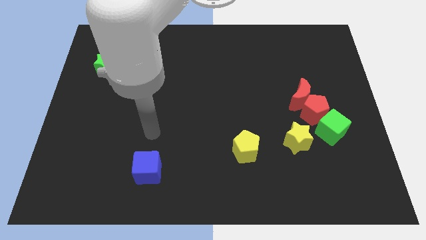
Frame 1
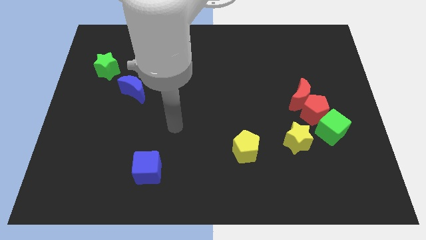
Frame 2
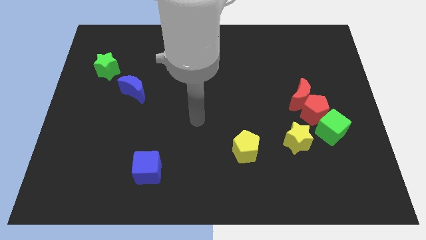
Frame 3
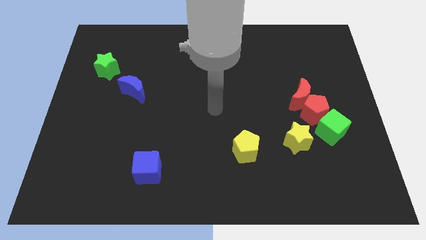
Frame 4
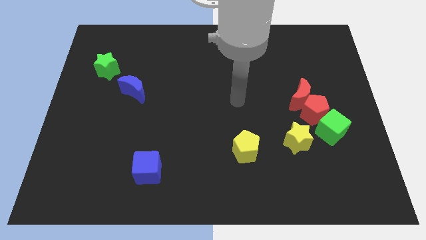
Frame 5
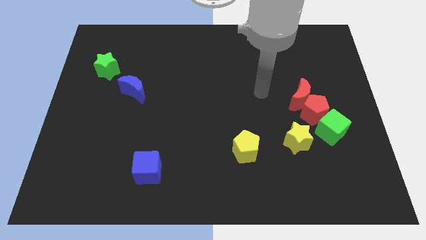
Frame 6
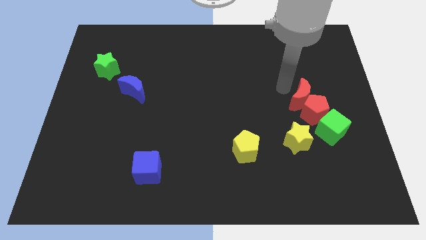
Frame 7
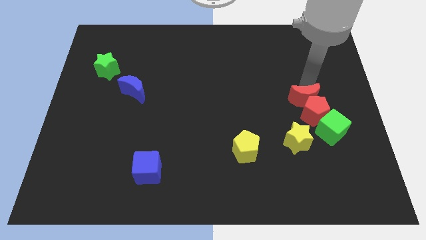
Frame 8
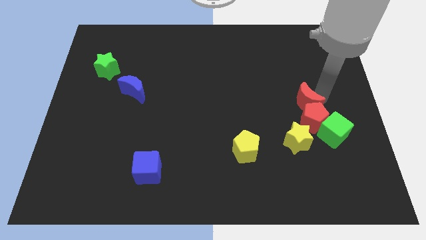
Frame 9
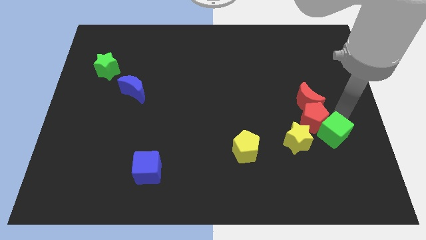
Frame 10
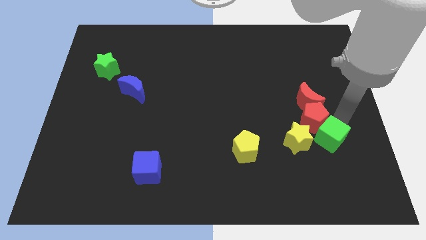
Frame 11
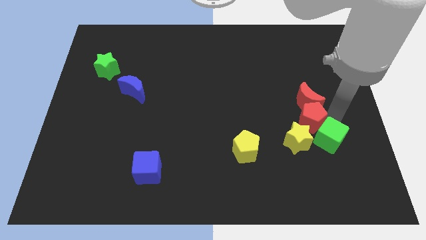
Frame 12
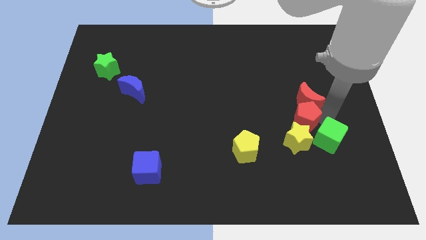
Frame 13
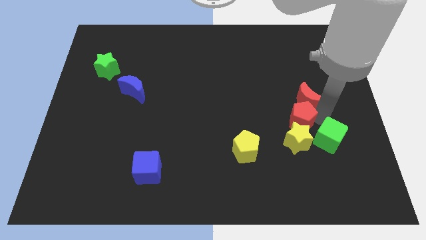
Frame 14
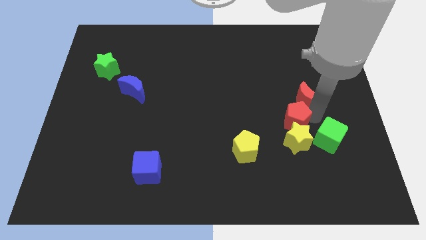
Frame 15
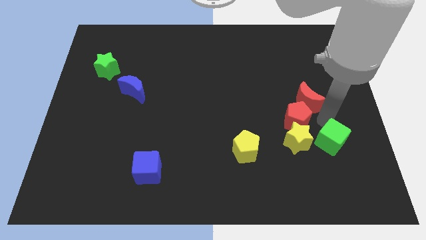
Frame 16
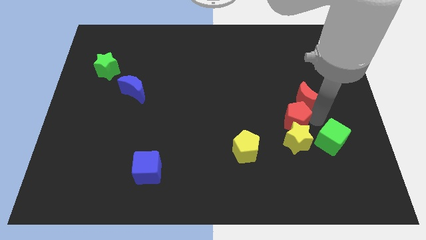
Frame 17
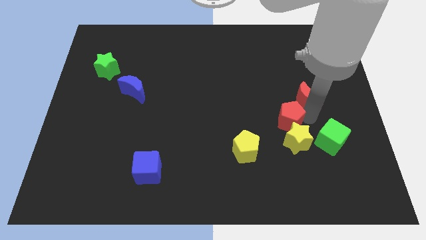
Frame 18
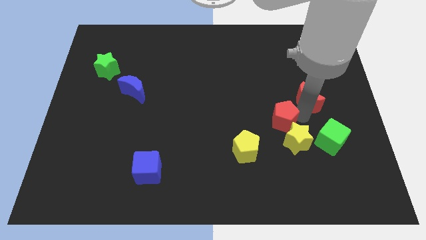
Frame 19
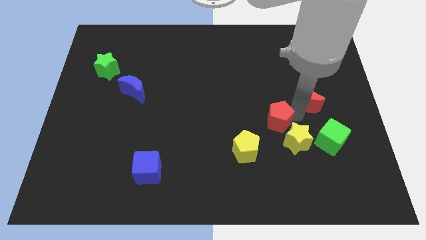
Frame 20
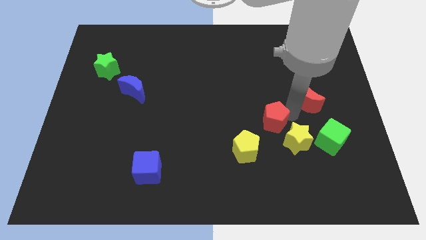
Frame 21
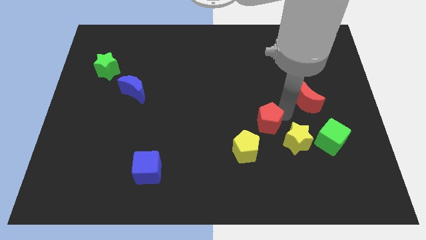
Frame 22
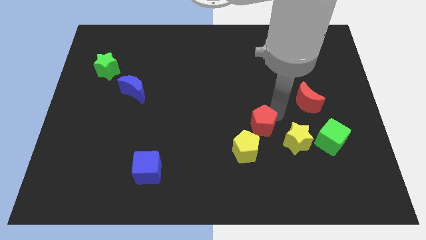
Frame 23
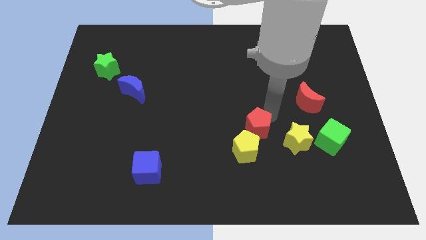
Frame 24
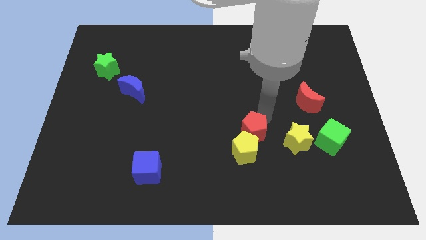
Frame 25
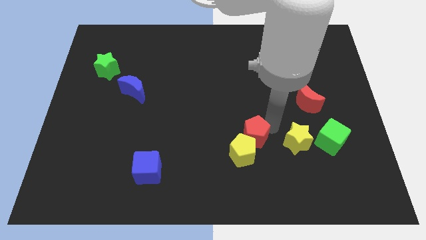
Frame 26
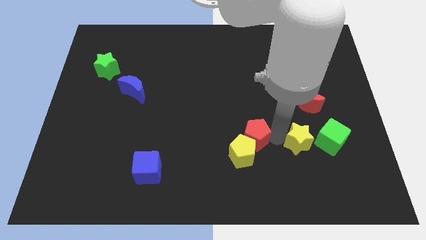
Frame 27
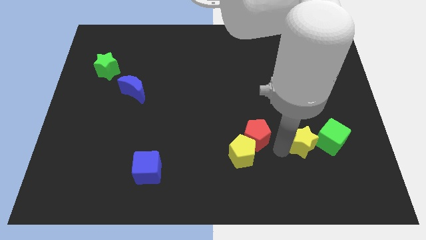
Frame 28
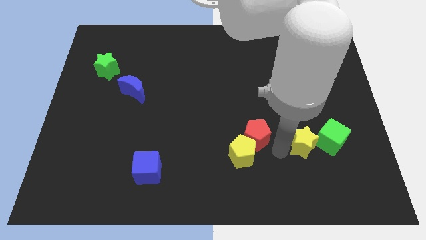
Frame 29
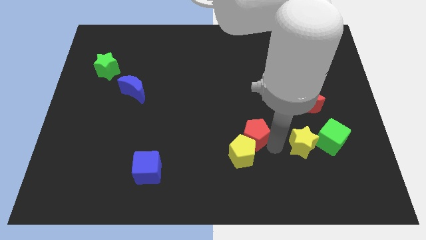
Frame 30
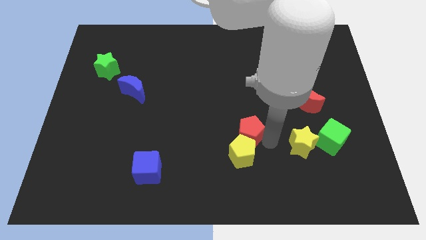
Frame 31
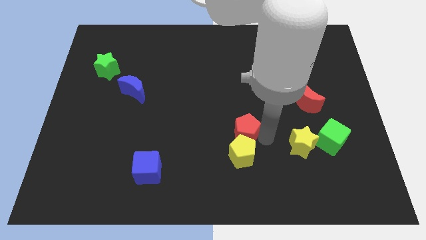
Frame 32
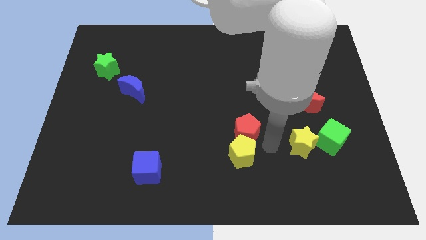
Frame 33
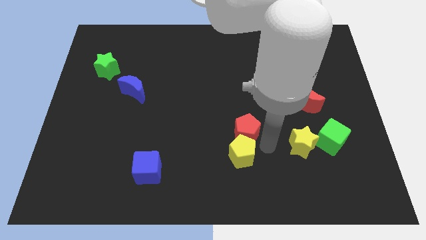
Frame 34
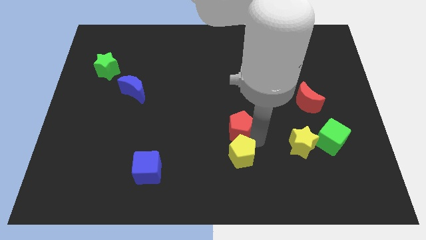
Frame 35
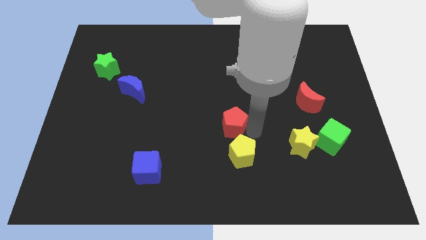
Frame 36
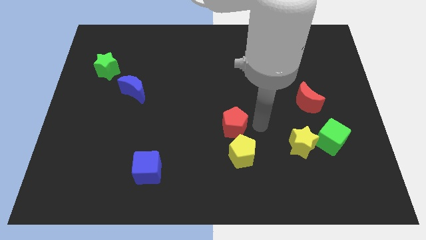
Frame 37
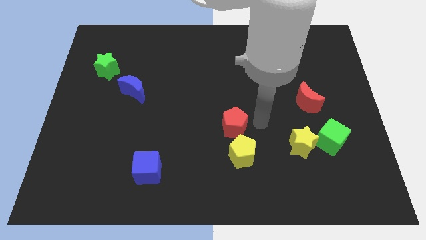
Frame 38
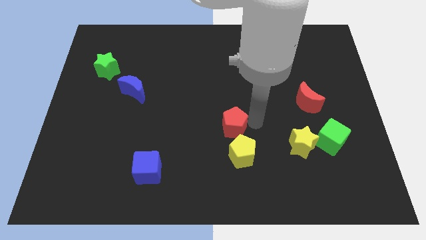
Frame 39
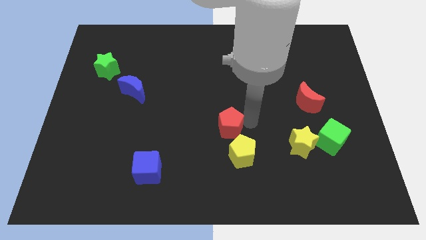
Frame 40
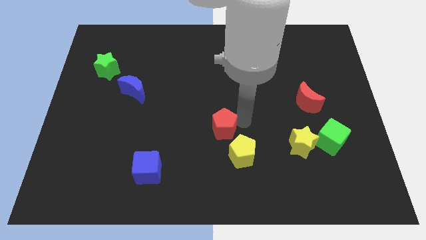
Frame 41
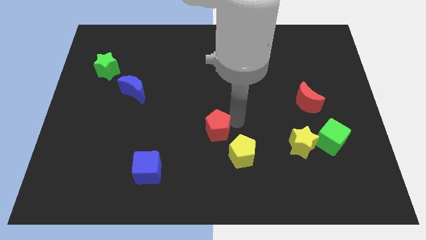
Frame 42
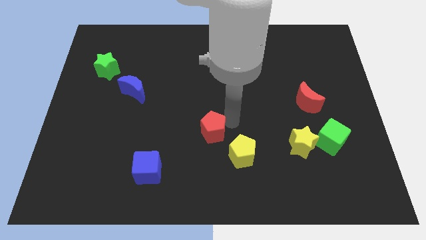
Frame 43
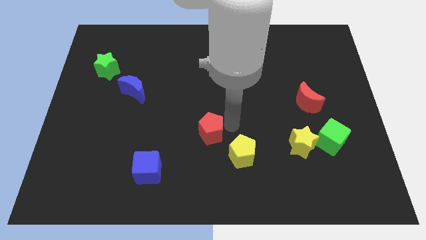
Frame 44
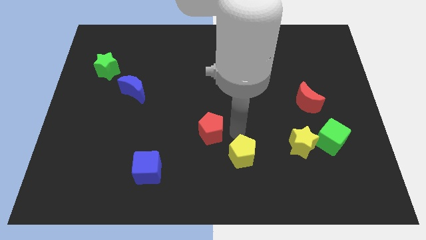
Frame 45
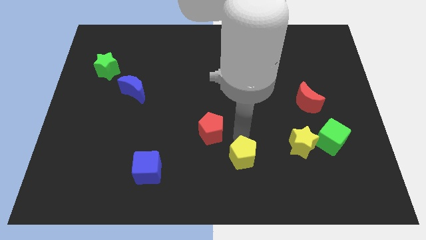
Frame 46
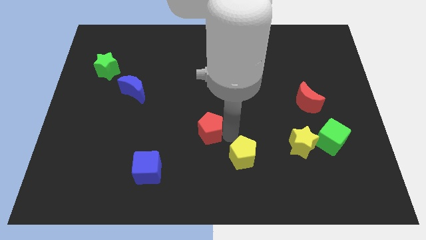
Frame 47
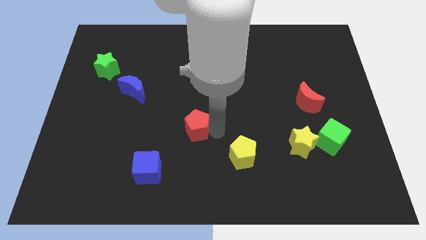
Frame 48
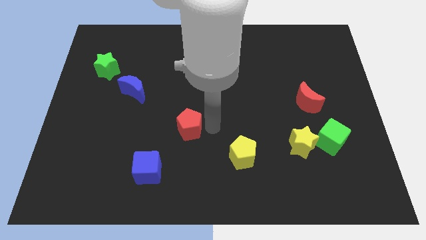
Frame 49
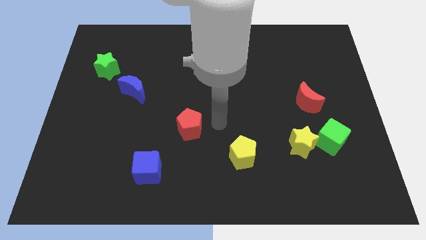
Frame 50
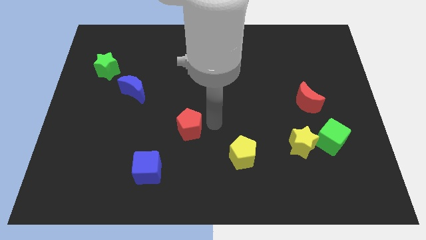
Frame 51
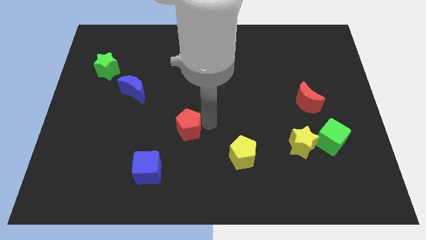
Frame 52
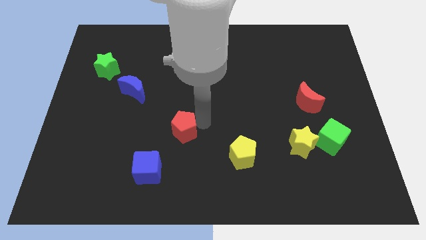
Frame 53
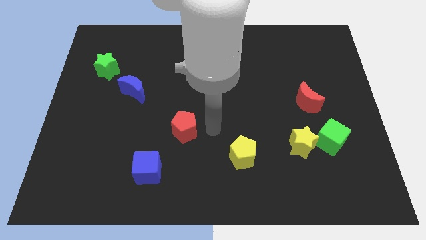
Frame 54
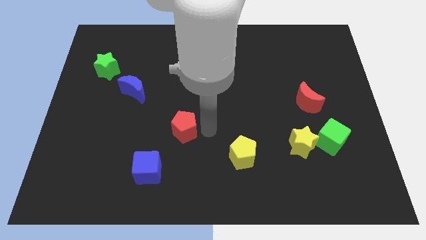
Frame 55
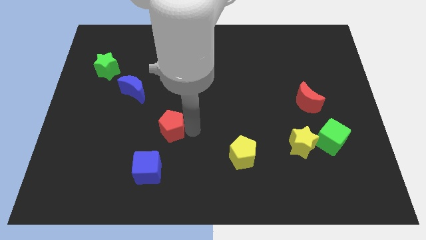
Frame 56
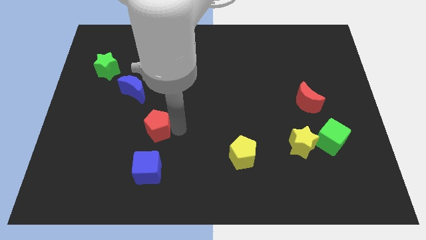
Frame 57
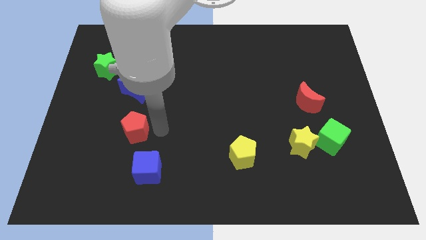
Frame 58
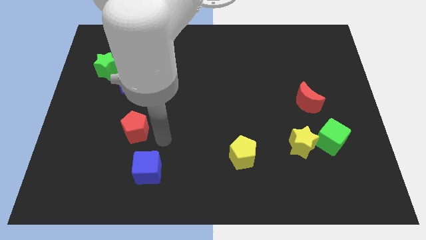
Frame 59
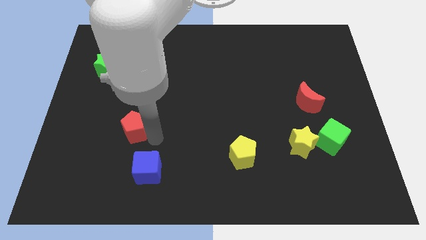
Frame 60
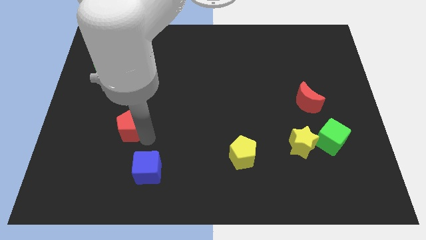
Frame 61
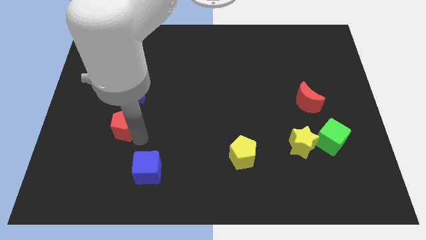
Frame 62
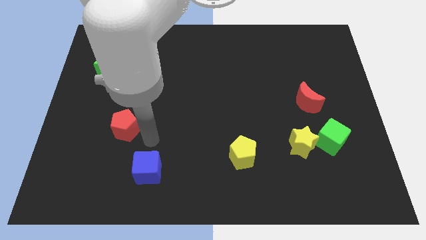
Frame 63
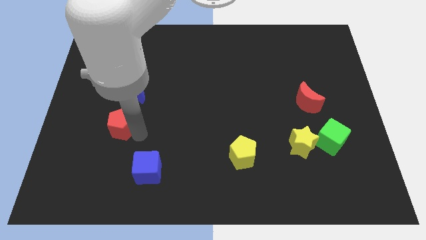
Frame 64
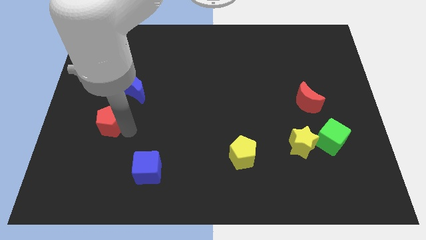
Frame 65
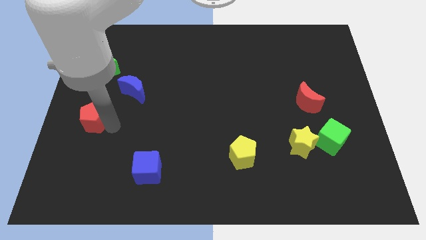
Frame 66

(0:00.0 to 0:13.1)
push the red pentagon to the left side

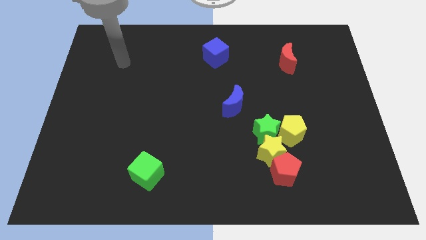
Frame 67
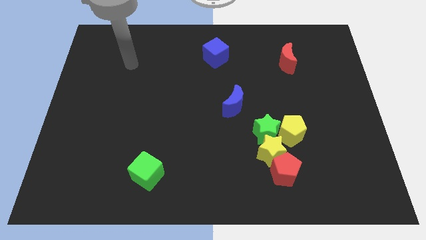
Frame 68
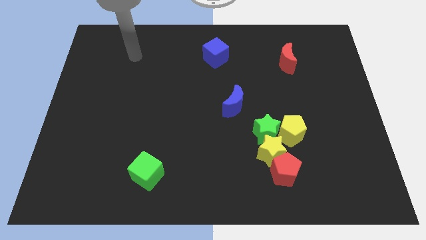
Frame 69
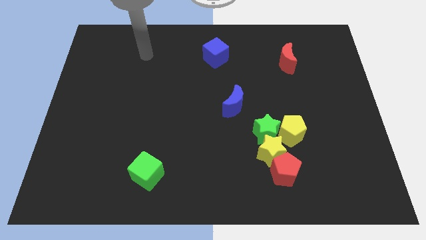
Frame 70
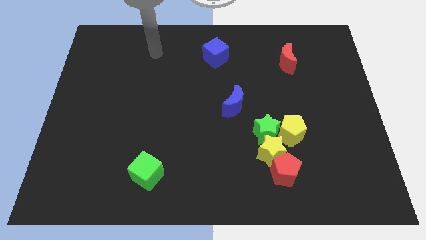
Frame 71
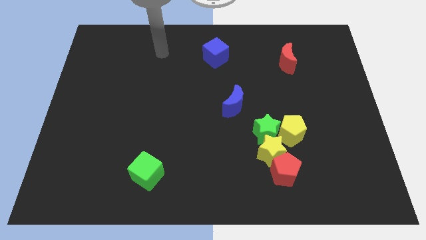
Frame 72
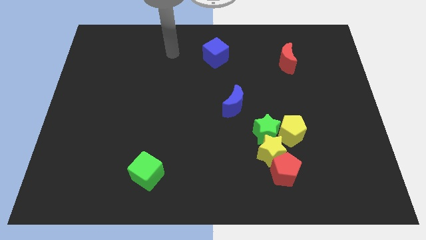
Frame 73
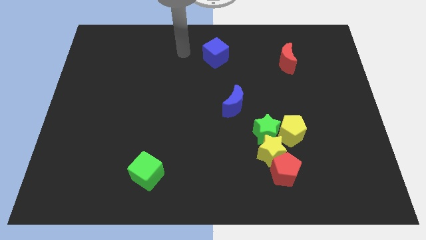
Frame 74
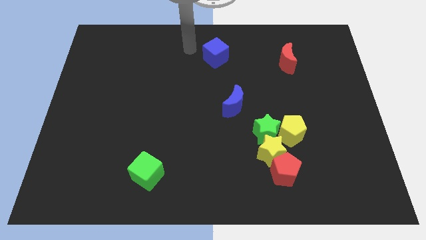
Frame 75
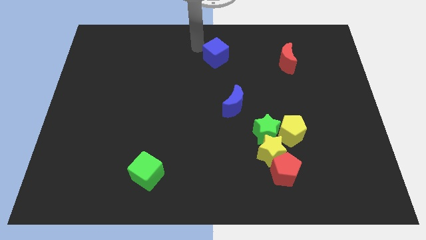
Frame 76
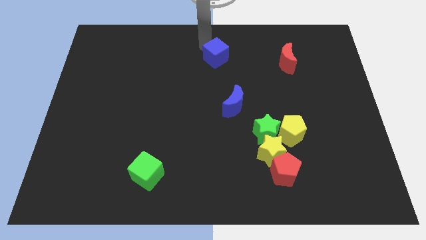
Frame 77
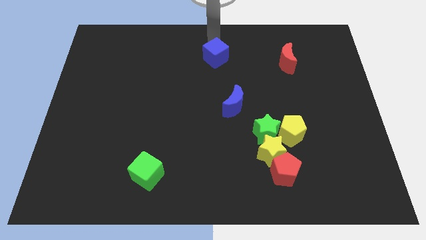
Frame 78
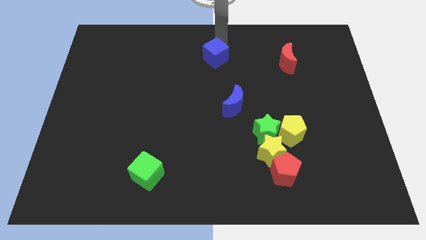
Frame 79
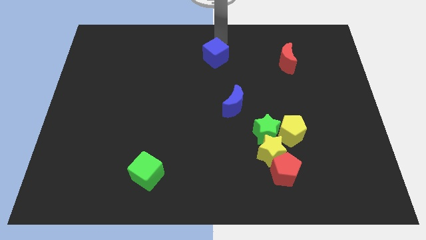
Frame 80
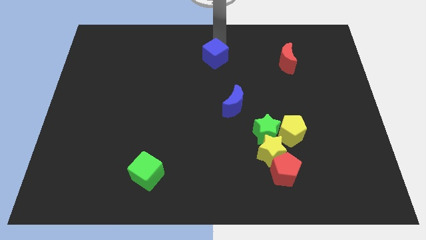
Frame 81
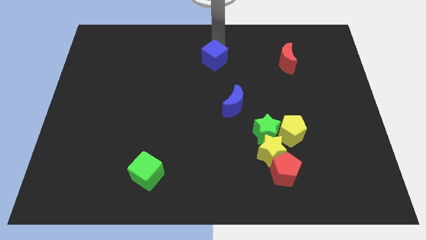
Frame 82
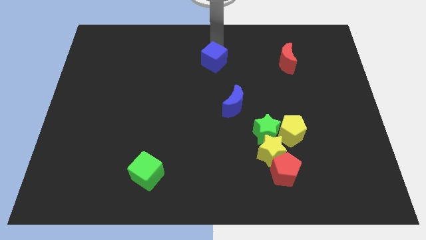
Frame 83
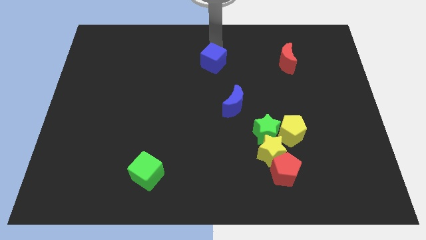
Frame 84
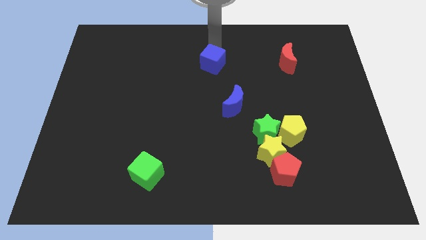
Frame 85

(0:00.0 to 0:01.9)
slide the blue cube to the center
